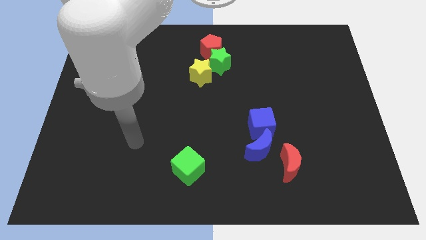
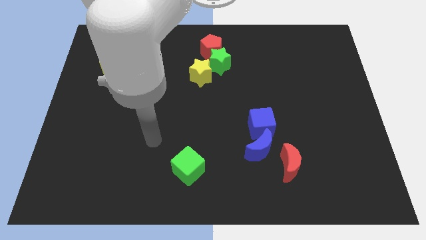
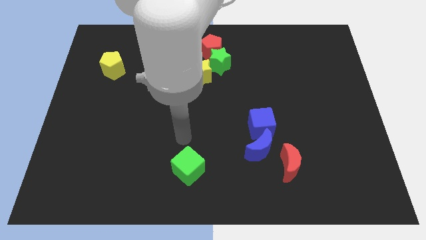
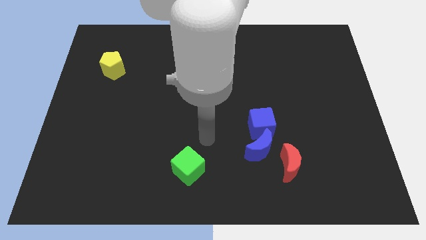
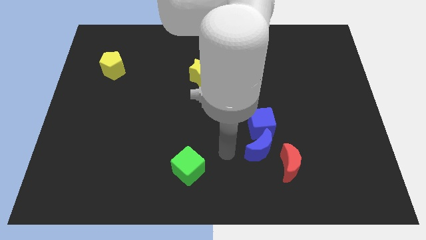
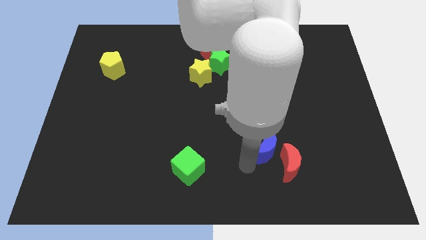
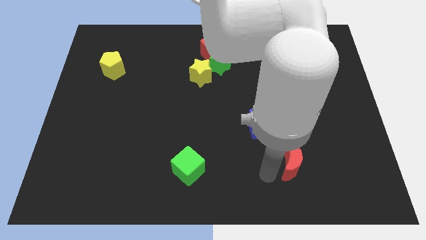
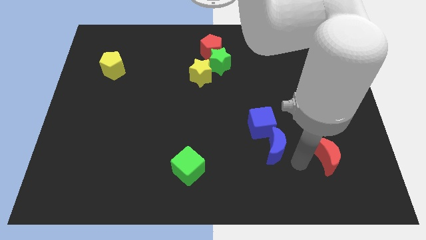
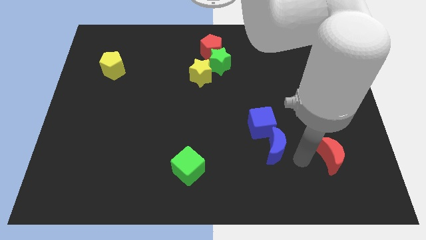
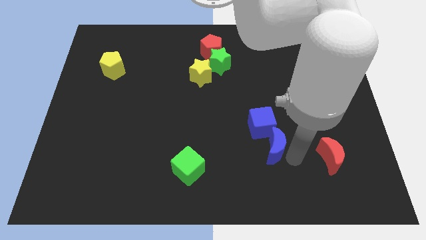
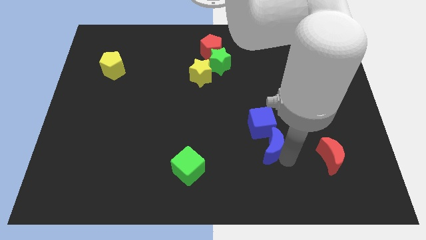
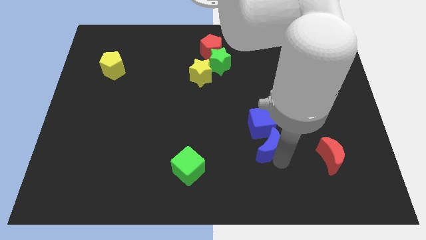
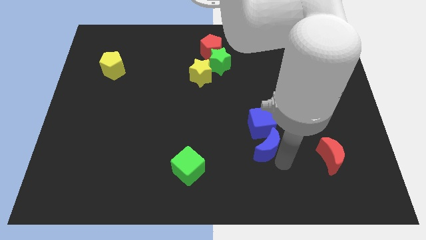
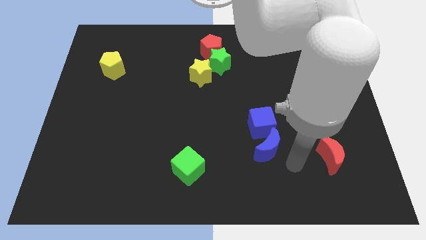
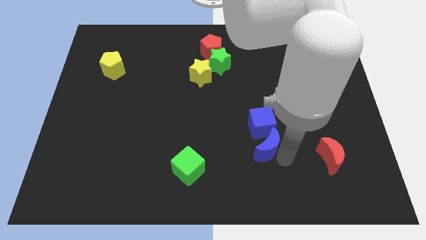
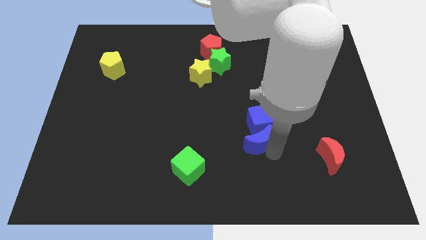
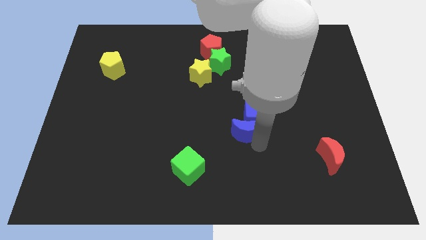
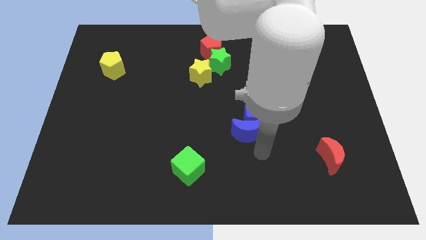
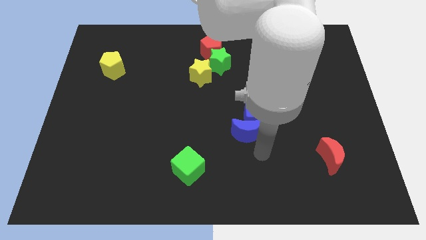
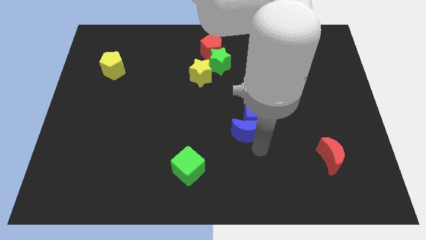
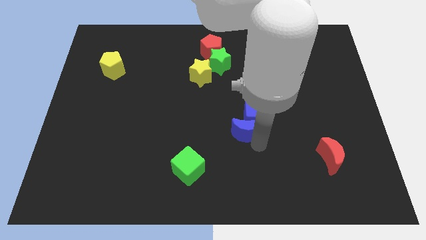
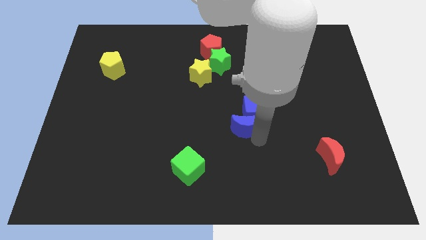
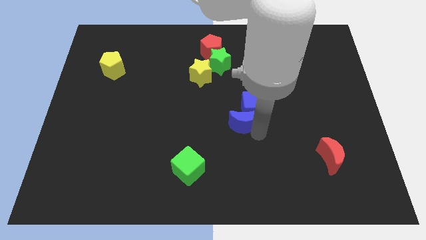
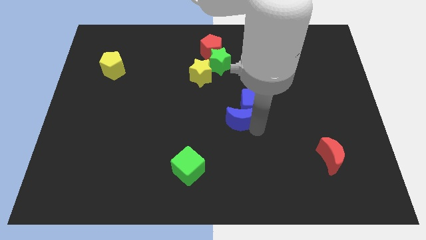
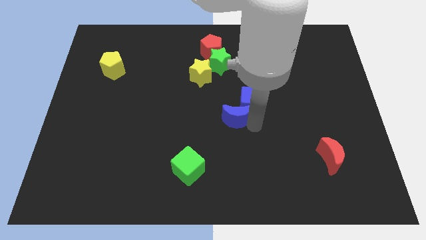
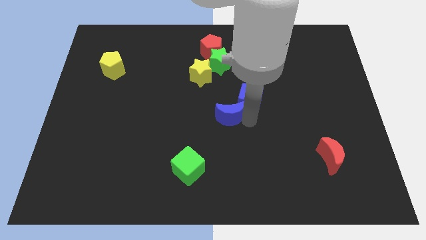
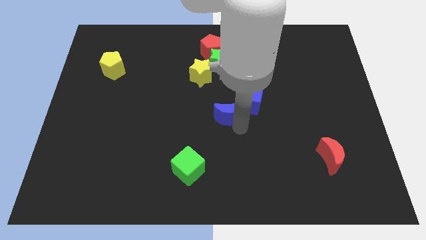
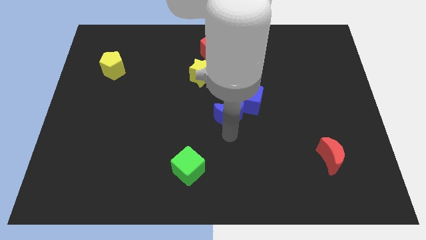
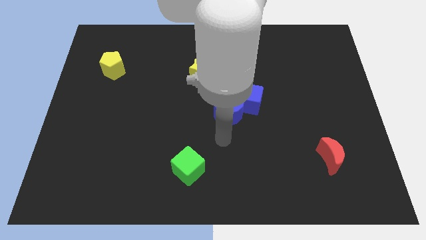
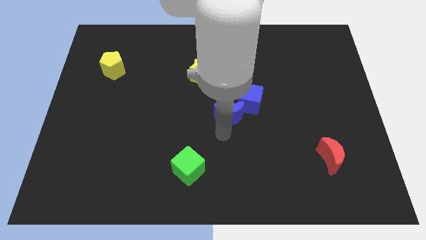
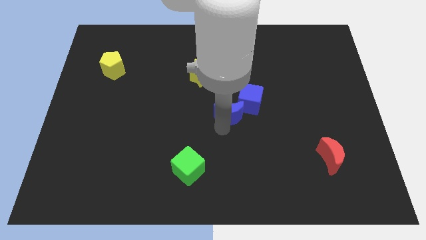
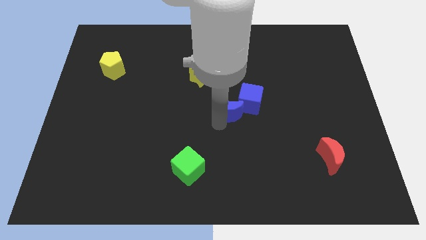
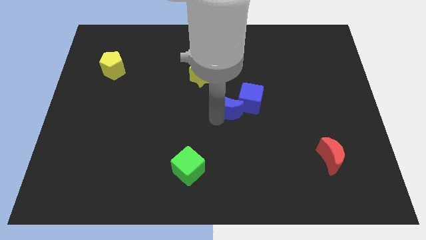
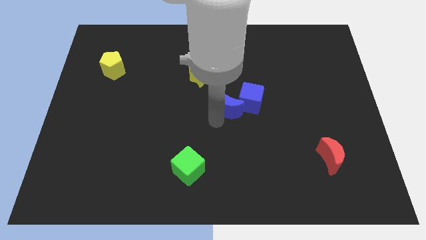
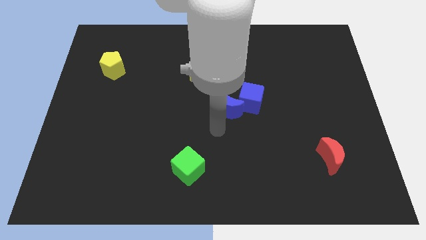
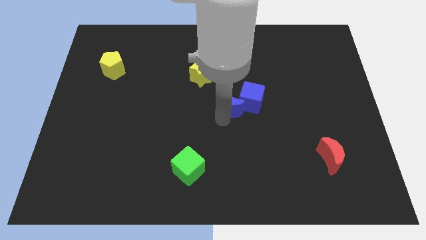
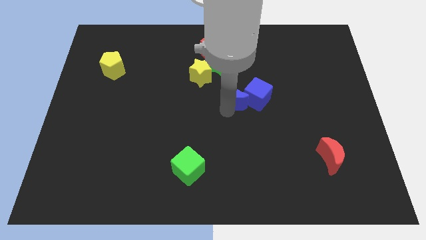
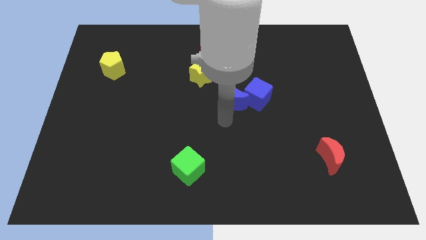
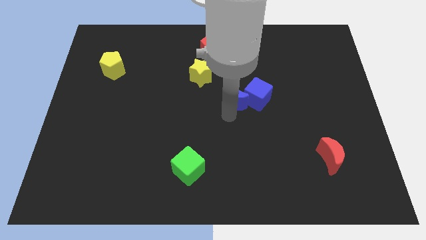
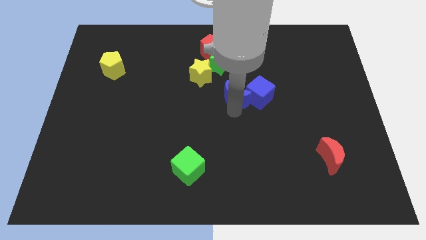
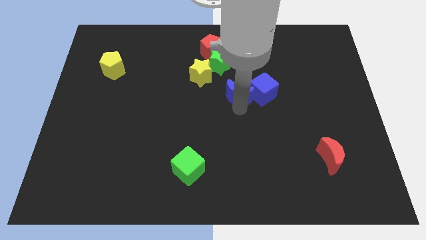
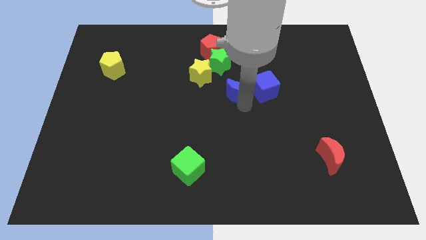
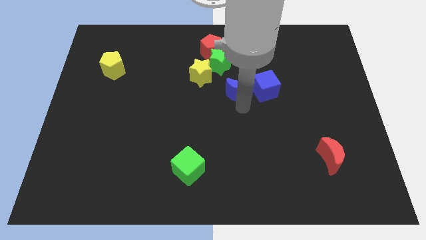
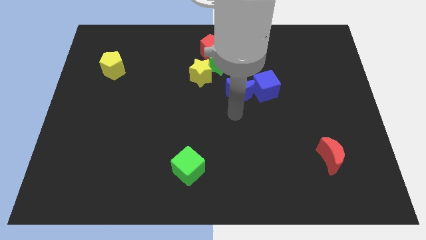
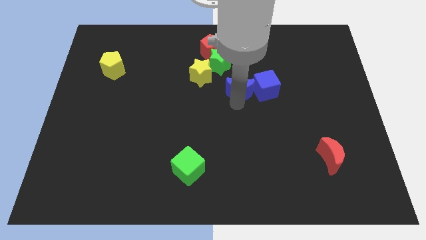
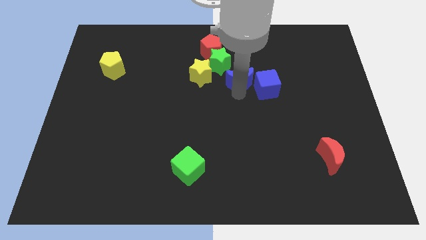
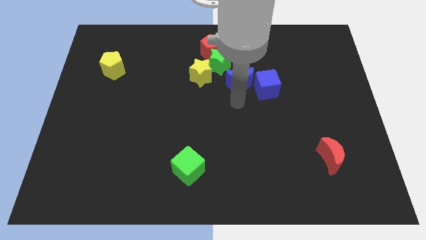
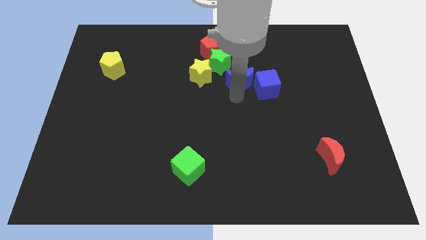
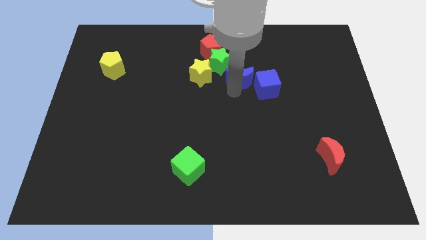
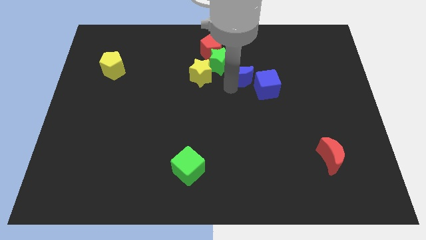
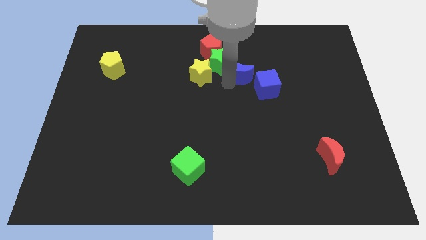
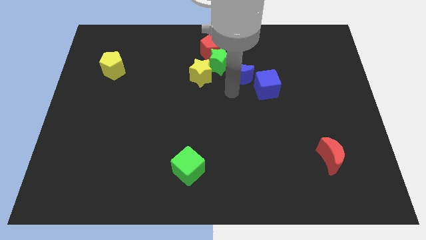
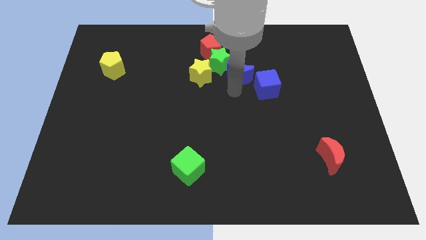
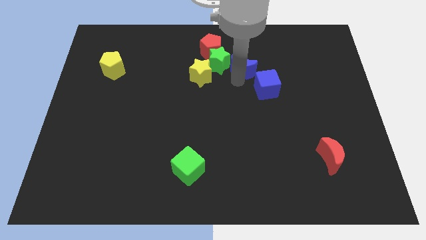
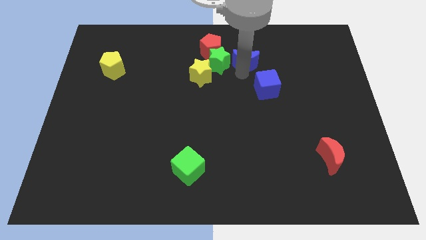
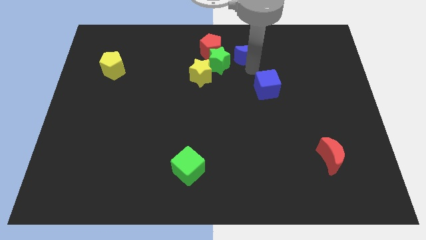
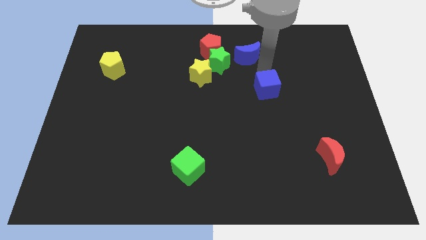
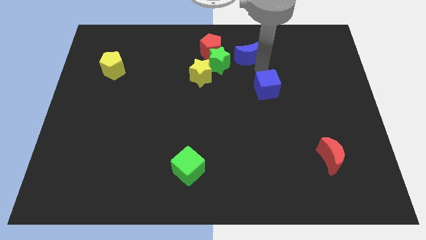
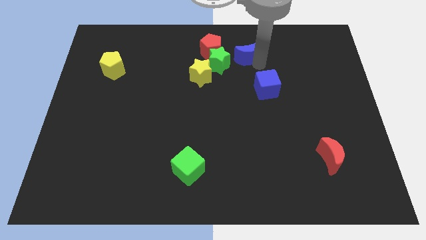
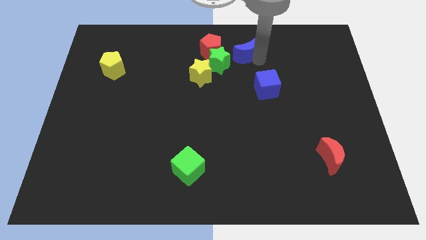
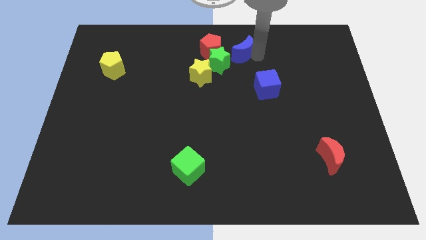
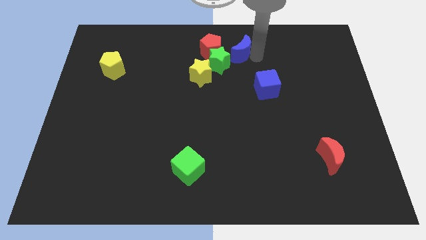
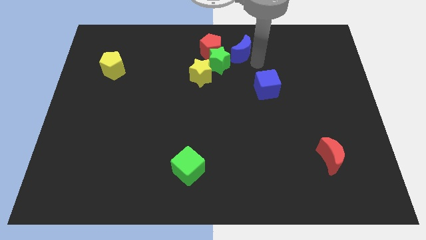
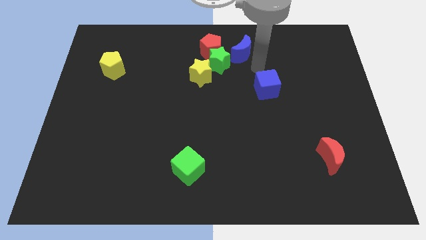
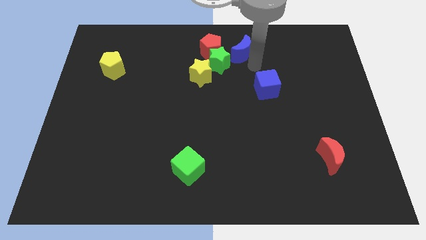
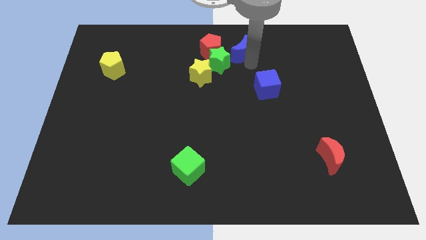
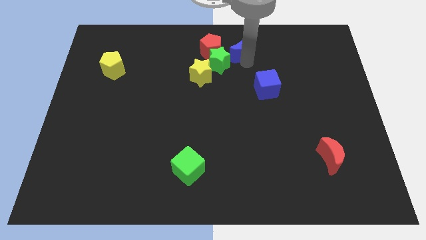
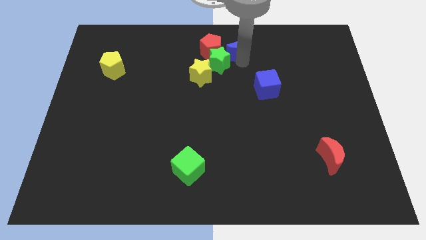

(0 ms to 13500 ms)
slide the blue moon to the towards your base
